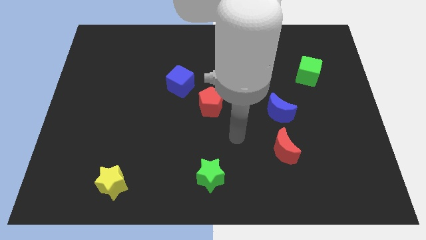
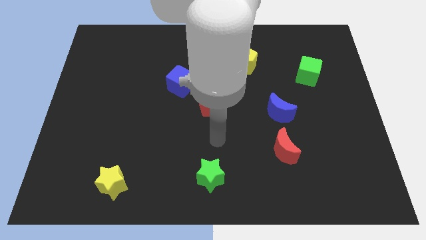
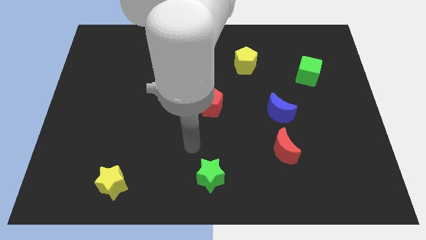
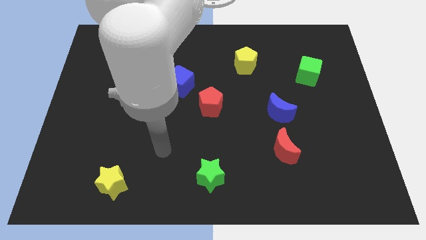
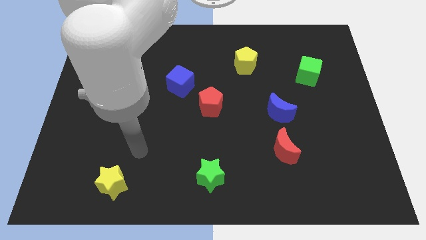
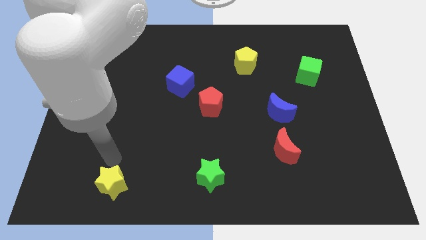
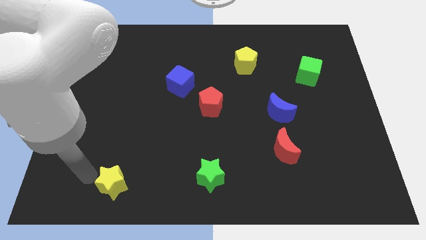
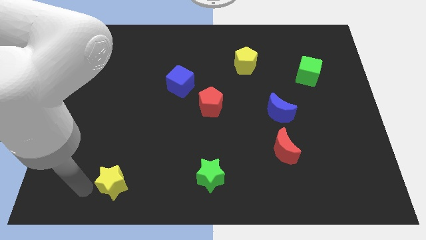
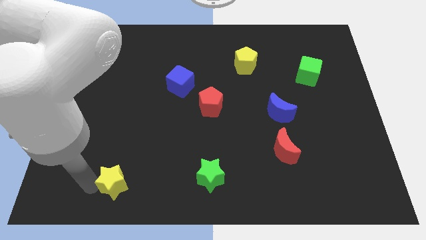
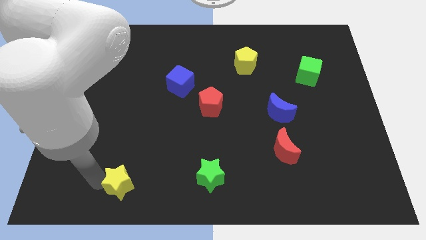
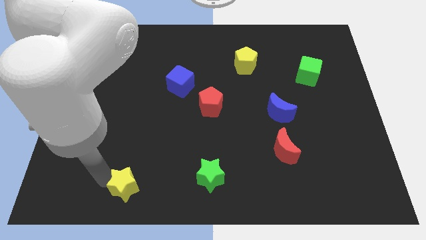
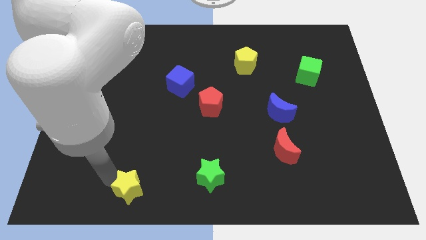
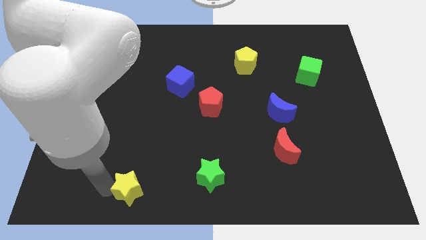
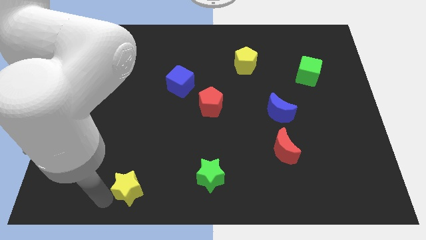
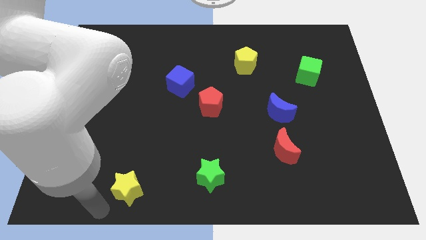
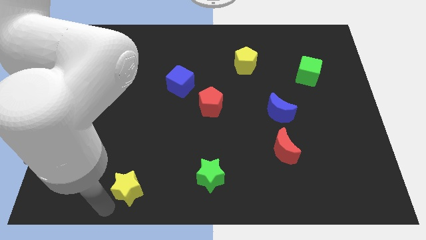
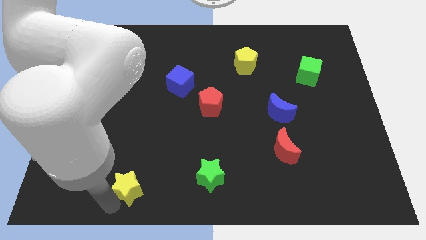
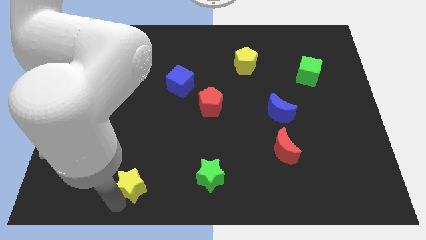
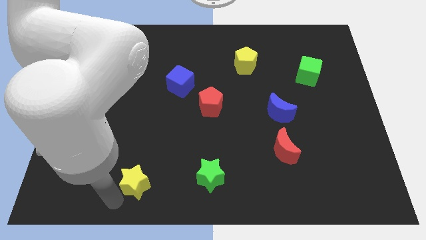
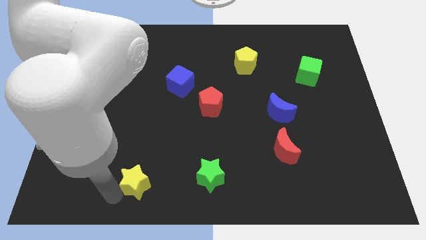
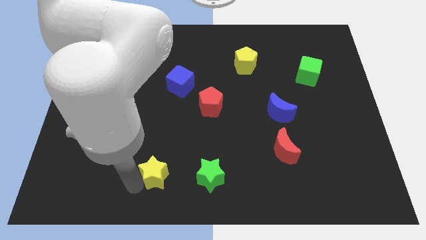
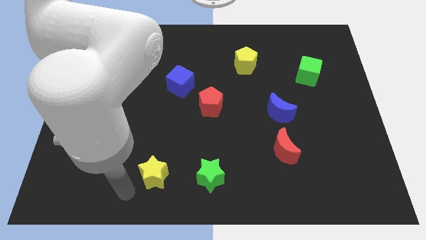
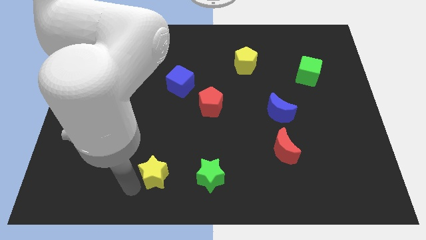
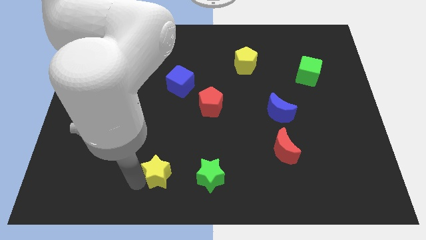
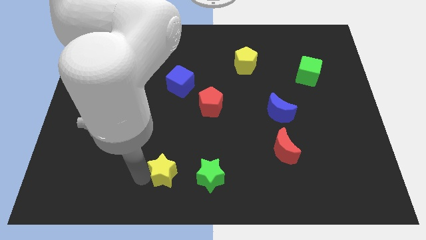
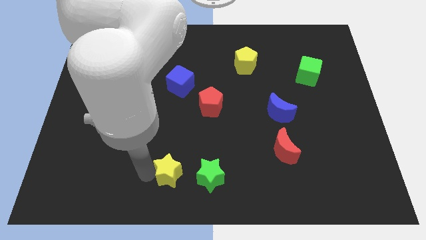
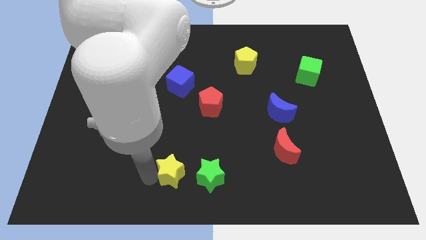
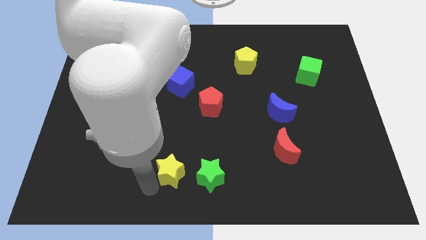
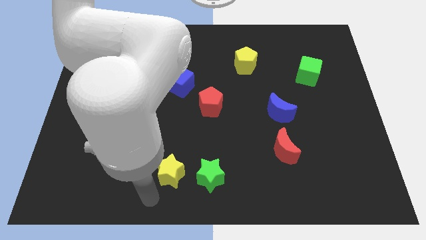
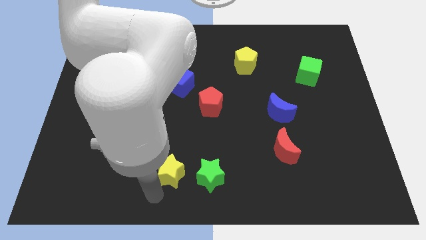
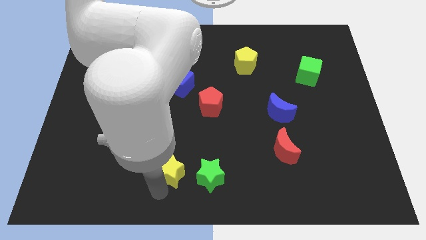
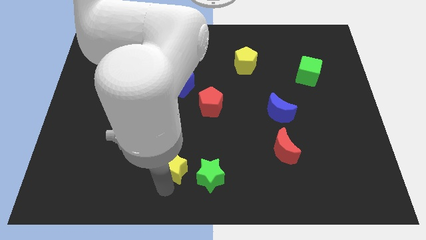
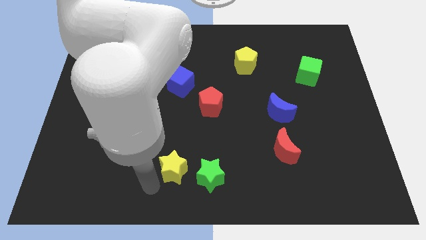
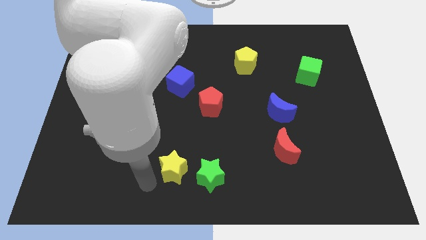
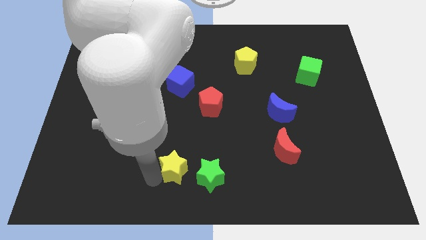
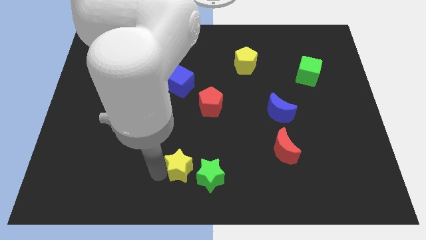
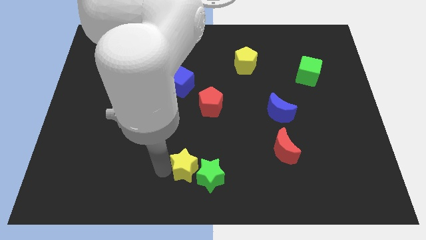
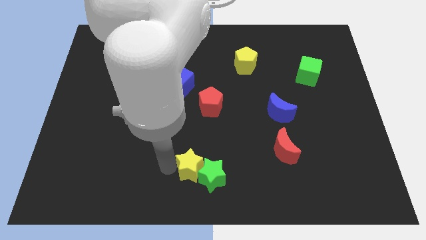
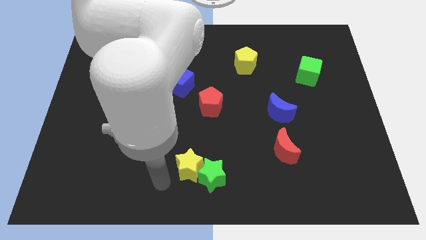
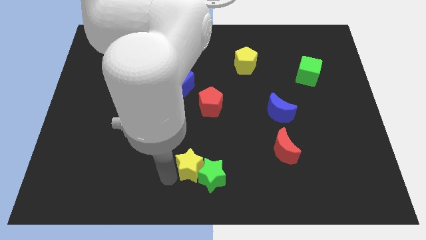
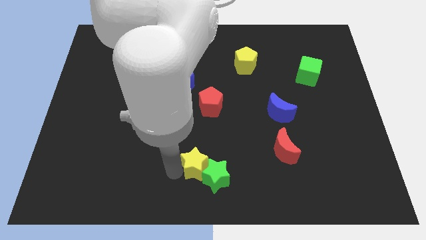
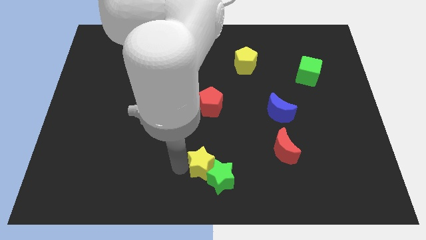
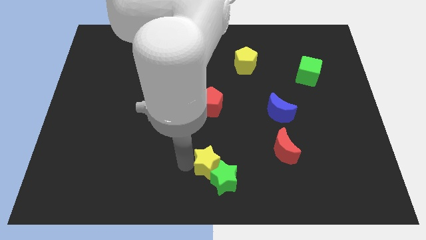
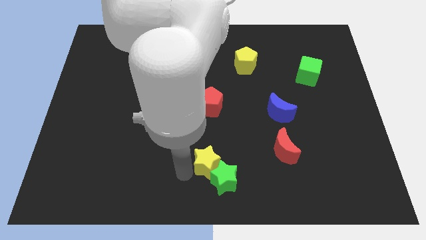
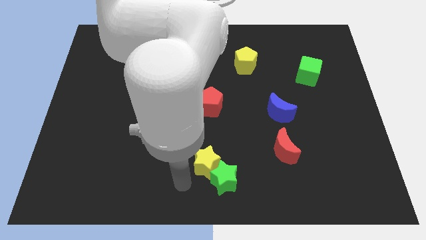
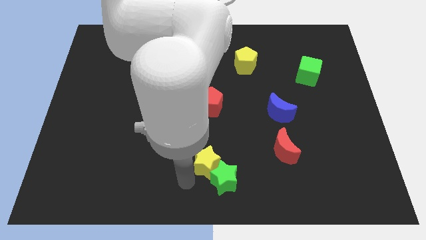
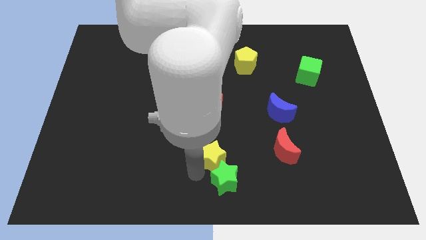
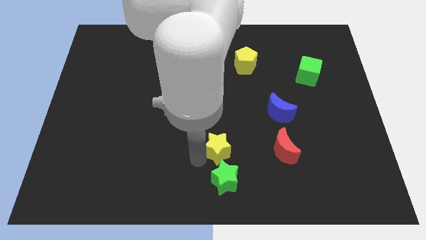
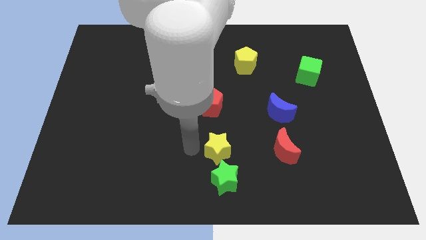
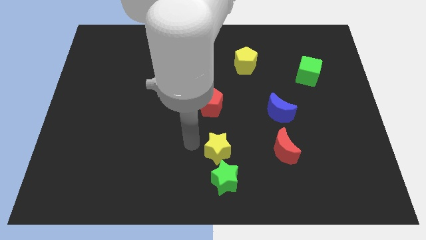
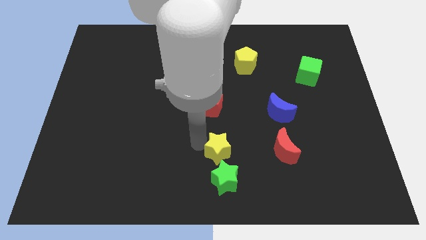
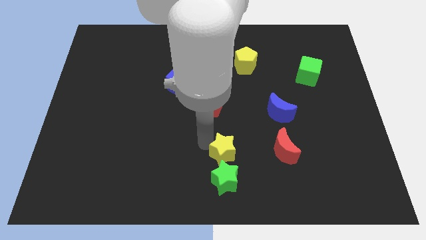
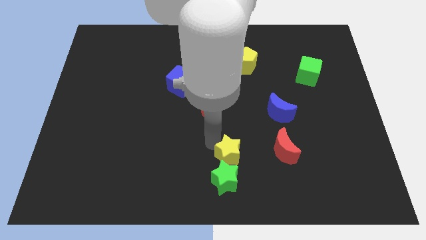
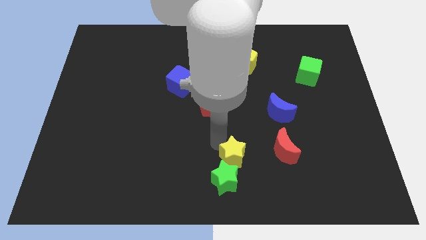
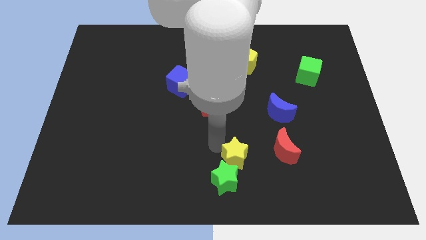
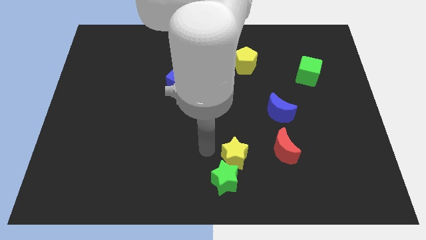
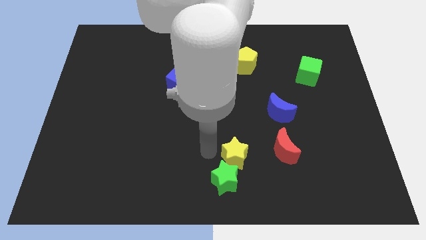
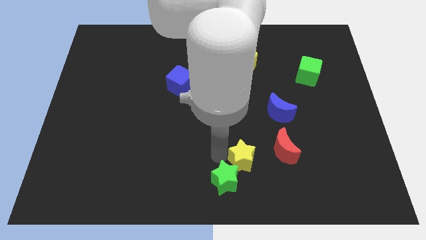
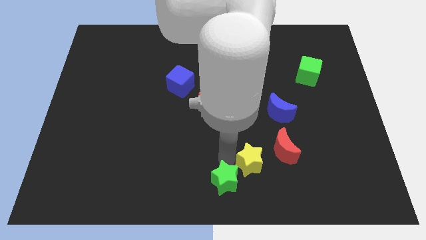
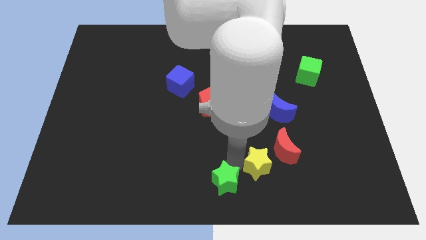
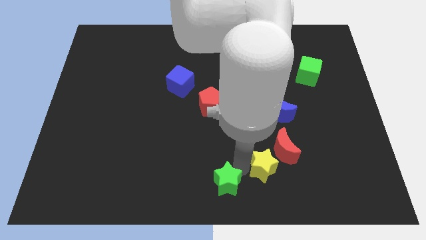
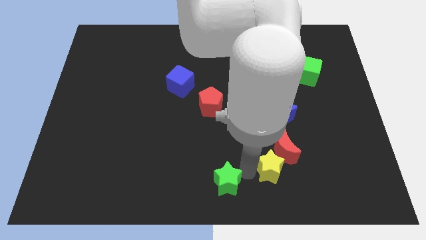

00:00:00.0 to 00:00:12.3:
move the yellow star close to the red moon

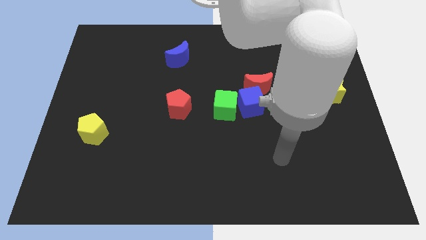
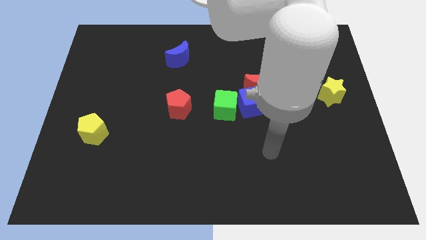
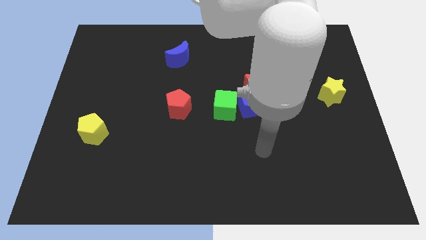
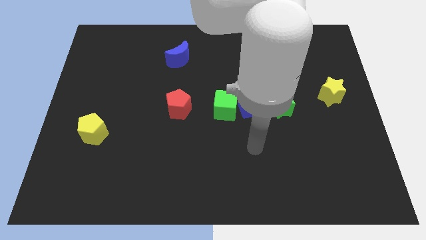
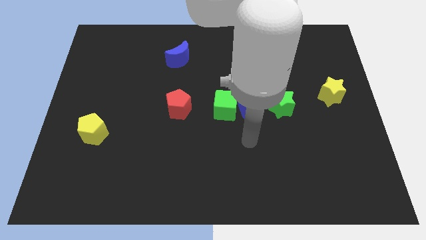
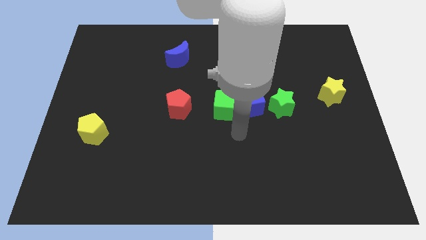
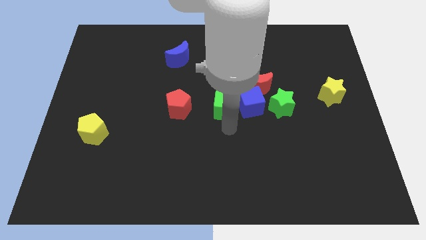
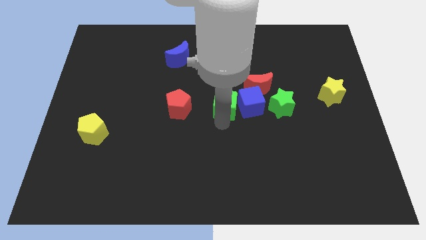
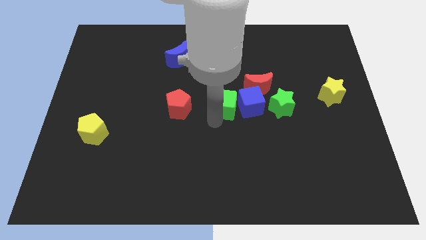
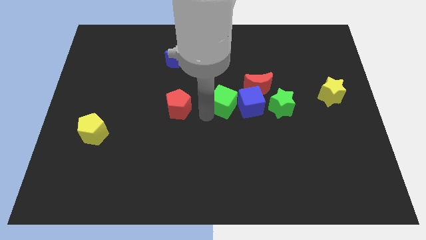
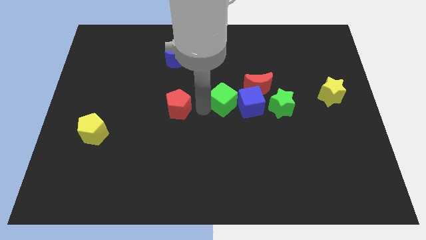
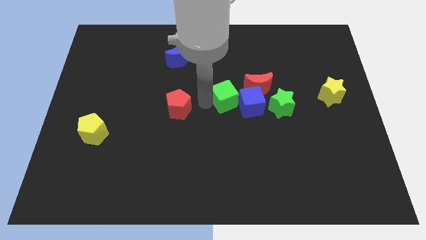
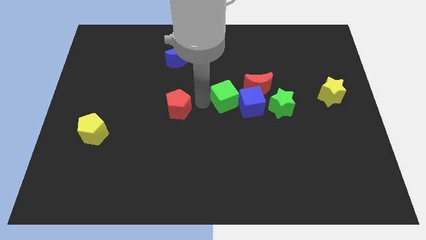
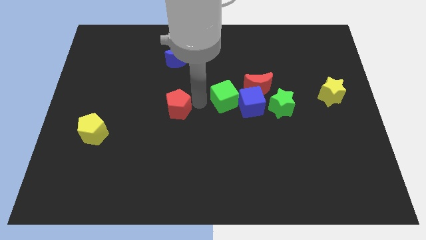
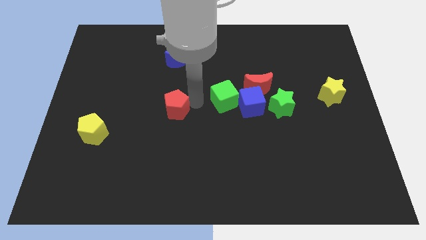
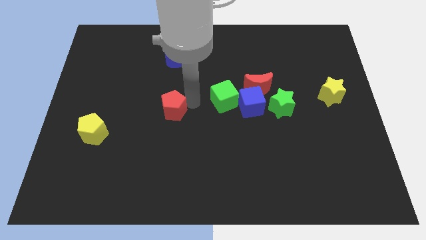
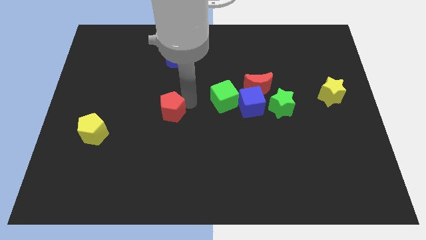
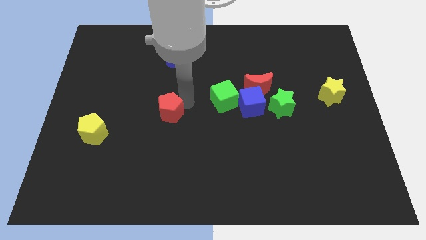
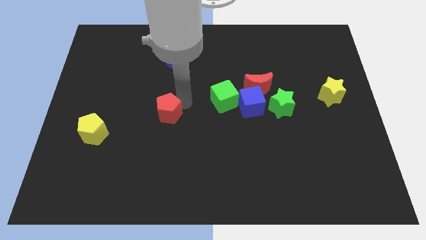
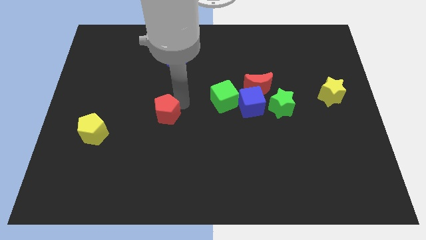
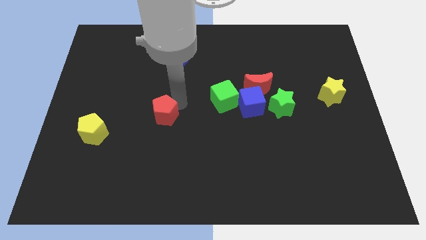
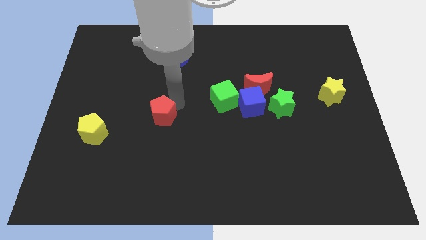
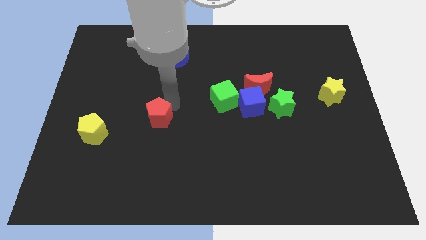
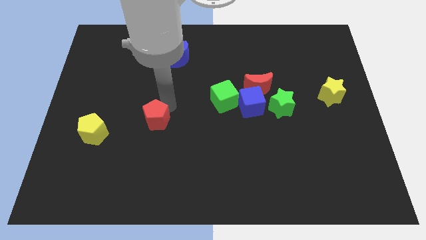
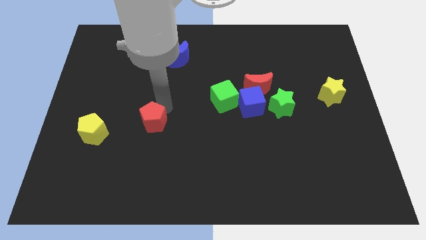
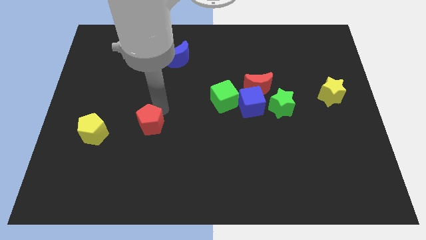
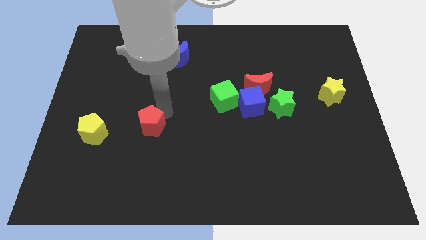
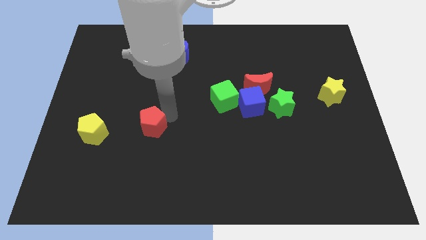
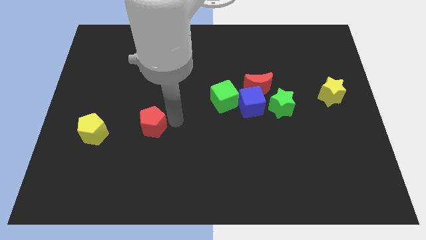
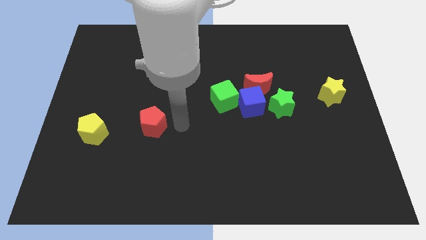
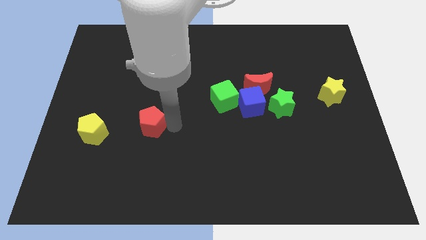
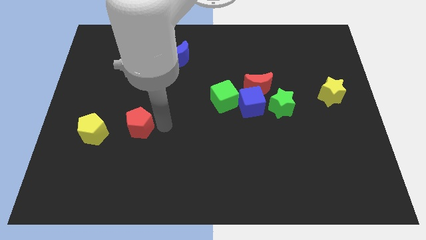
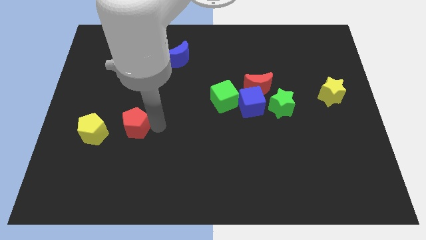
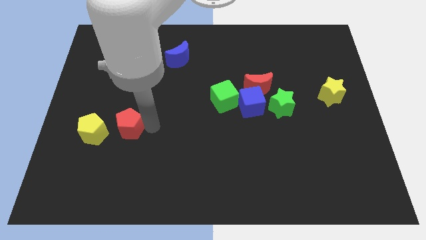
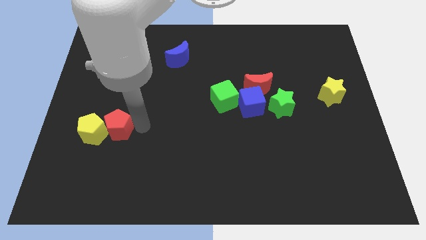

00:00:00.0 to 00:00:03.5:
move the red pentagon next to the yellow pentagon
